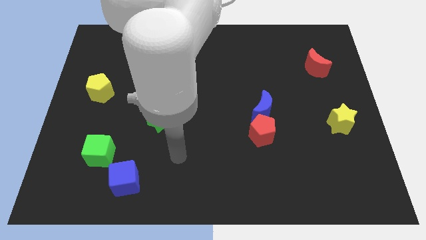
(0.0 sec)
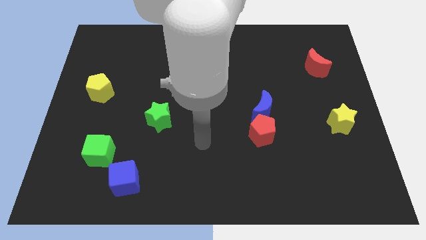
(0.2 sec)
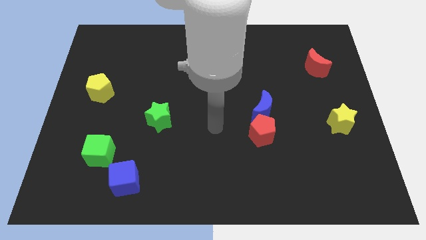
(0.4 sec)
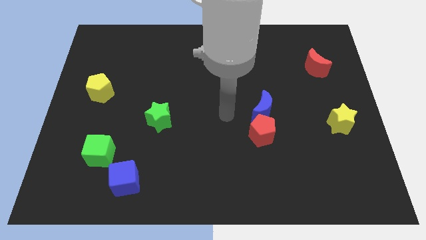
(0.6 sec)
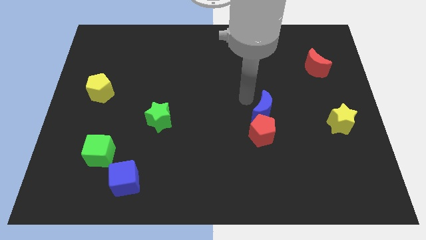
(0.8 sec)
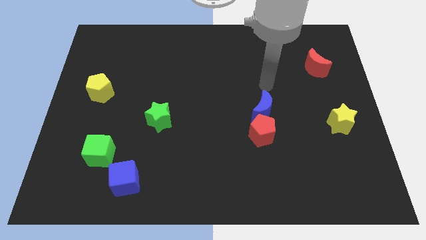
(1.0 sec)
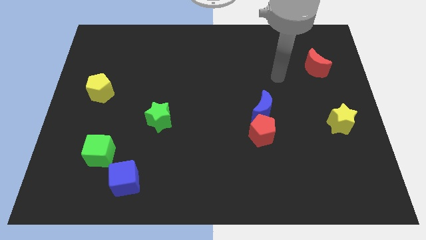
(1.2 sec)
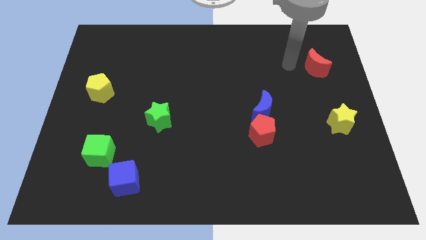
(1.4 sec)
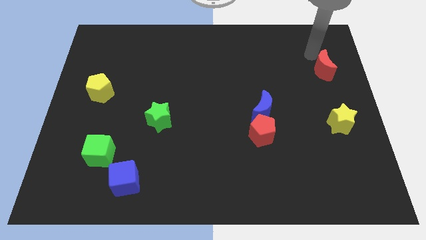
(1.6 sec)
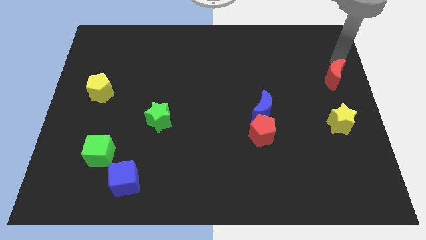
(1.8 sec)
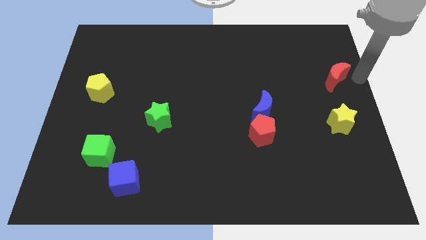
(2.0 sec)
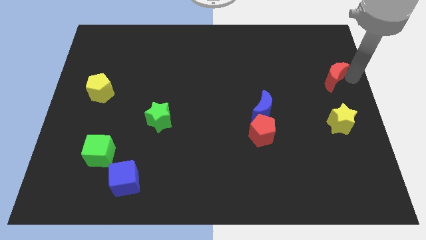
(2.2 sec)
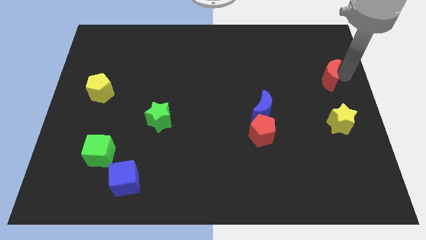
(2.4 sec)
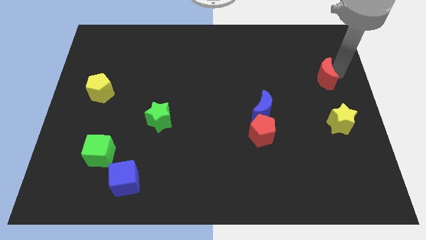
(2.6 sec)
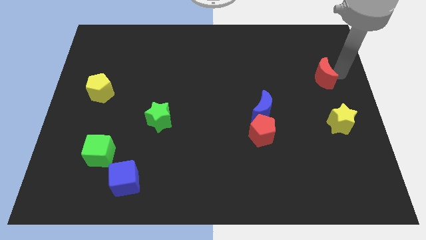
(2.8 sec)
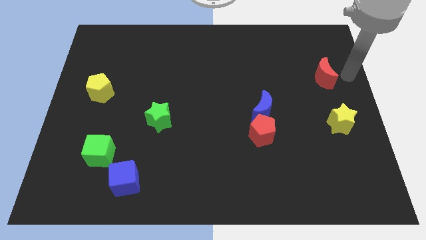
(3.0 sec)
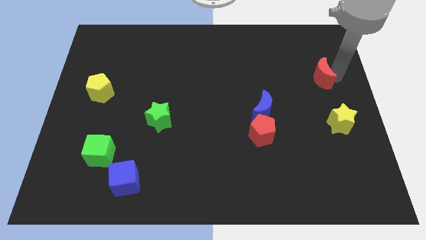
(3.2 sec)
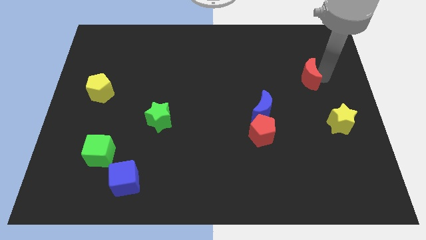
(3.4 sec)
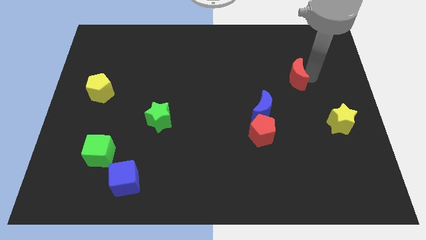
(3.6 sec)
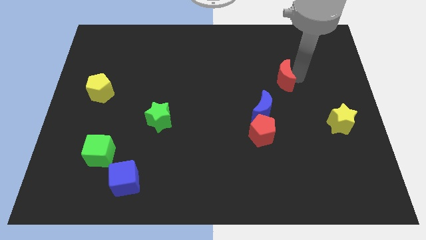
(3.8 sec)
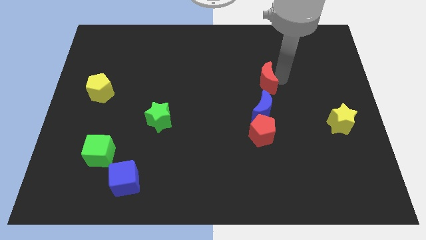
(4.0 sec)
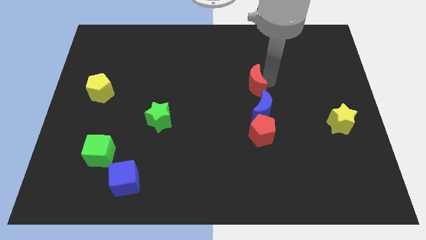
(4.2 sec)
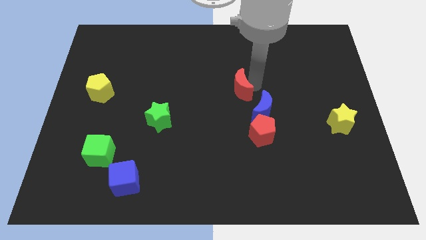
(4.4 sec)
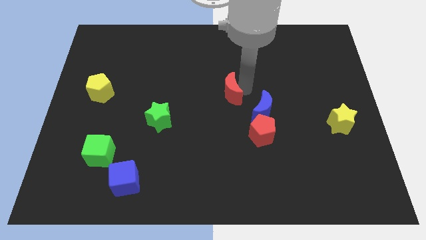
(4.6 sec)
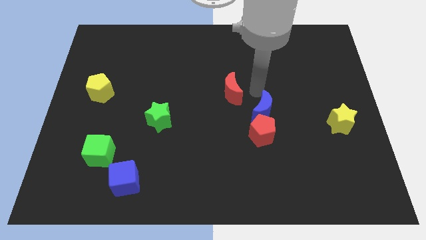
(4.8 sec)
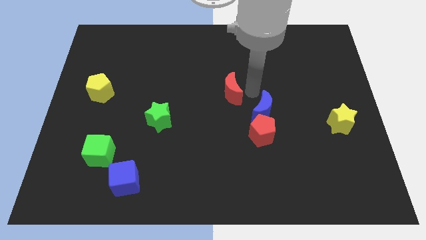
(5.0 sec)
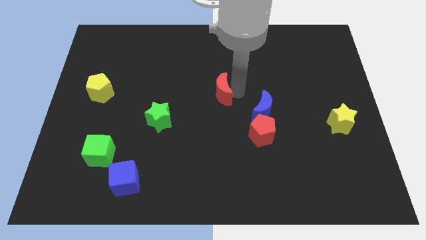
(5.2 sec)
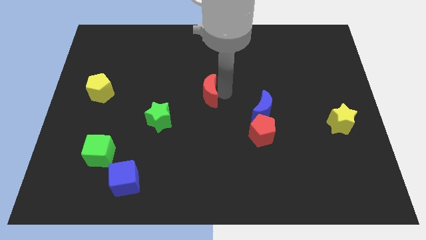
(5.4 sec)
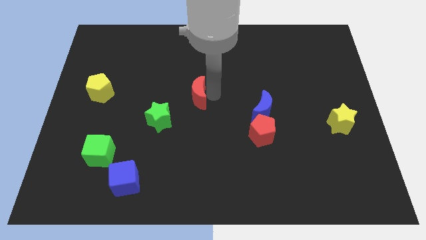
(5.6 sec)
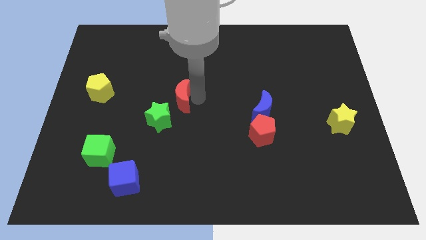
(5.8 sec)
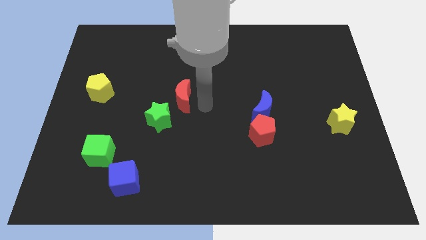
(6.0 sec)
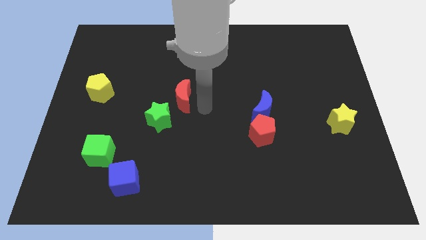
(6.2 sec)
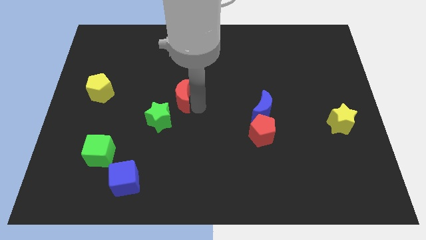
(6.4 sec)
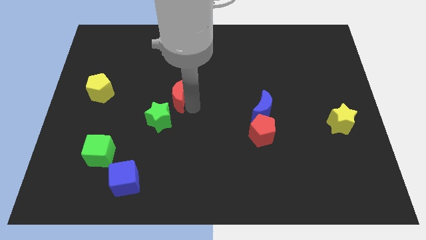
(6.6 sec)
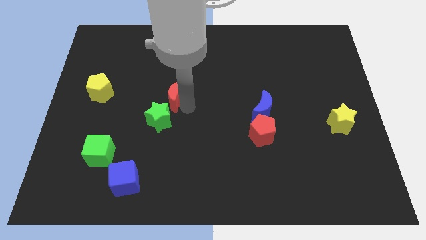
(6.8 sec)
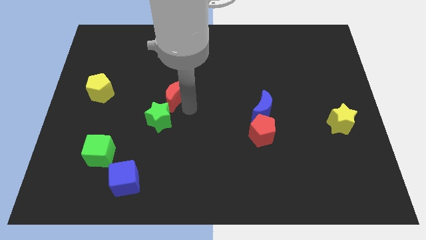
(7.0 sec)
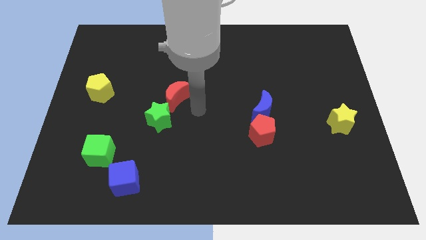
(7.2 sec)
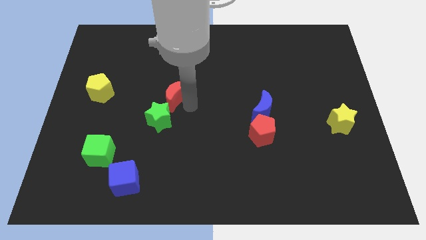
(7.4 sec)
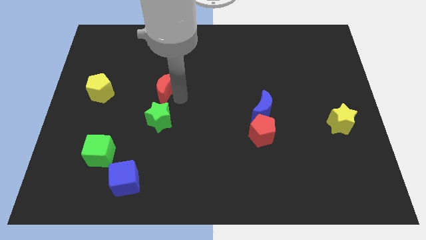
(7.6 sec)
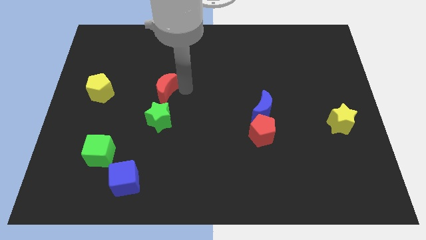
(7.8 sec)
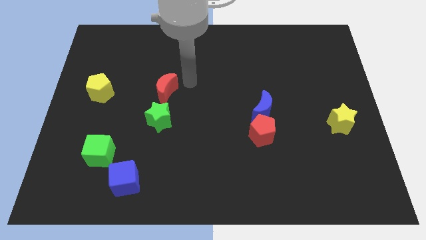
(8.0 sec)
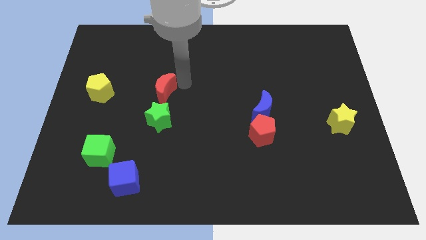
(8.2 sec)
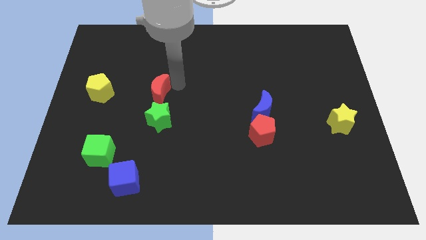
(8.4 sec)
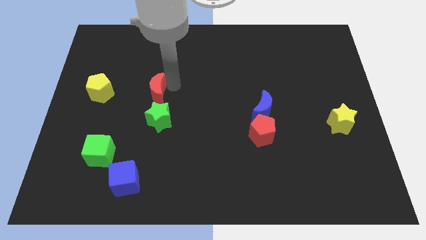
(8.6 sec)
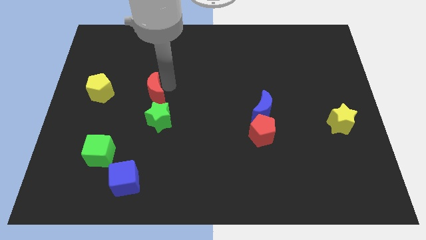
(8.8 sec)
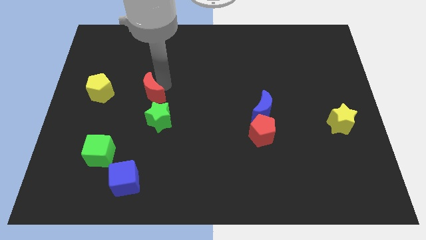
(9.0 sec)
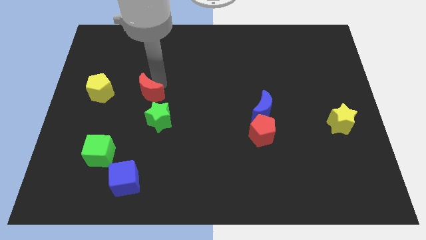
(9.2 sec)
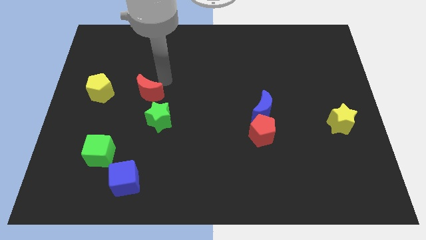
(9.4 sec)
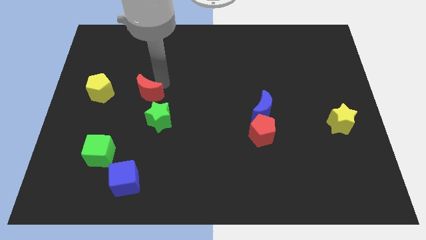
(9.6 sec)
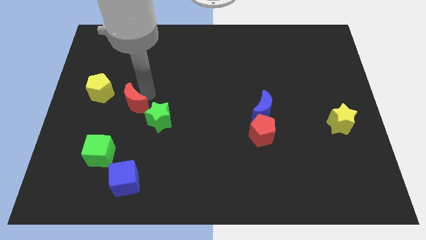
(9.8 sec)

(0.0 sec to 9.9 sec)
push the red moon to the left side of the green star

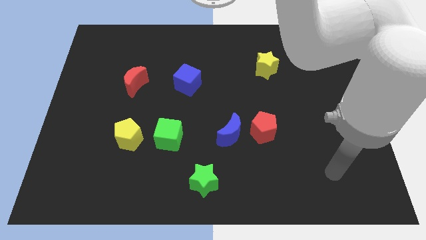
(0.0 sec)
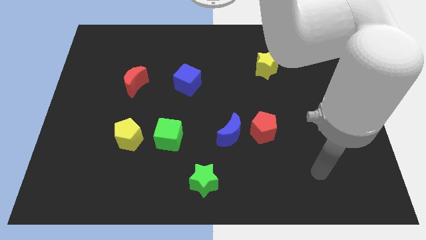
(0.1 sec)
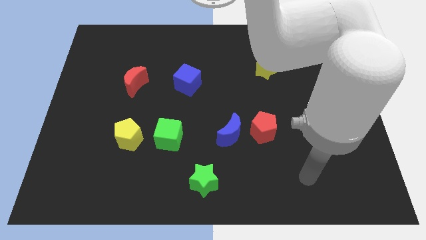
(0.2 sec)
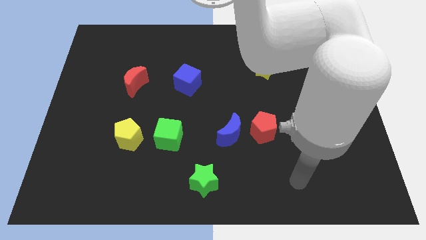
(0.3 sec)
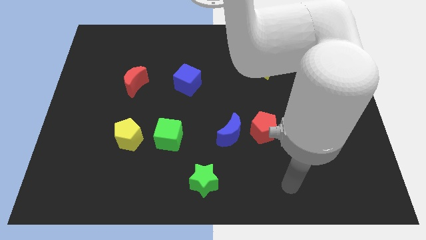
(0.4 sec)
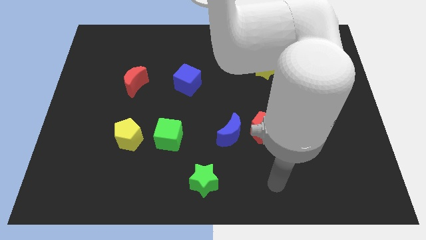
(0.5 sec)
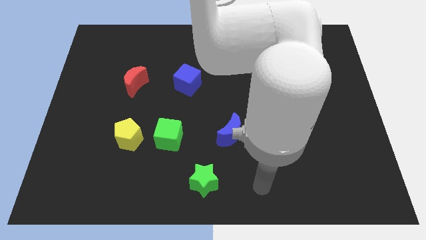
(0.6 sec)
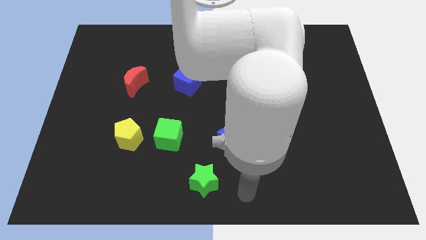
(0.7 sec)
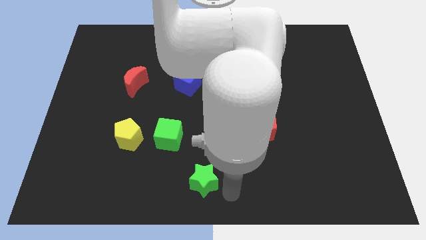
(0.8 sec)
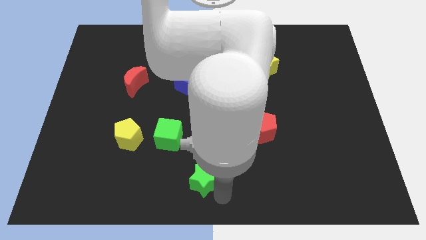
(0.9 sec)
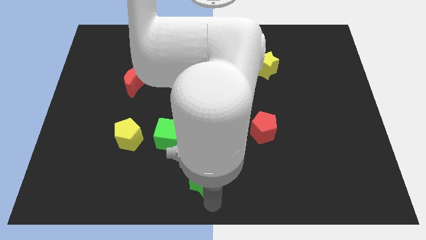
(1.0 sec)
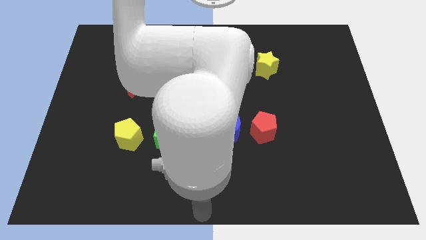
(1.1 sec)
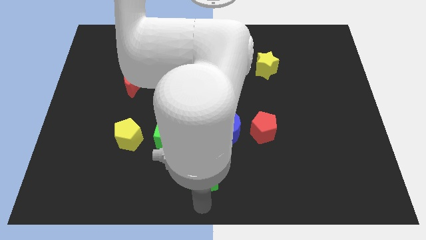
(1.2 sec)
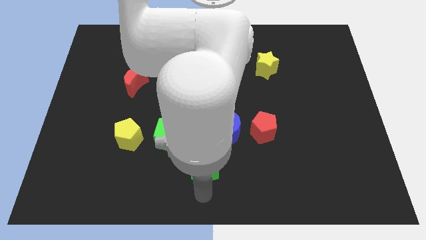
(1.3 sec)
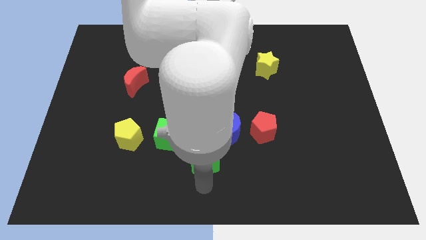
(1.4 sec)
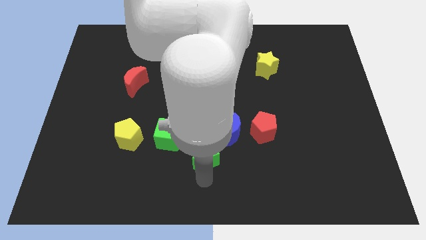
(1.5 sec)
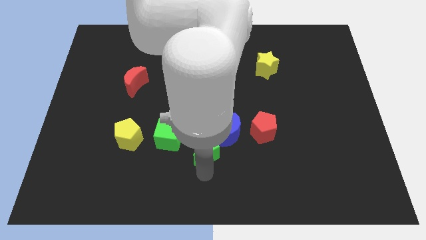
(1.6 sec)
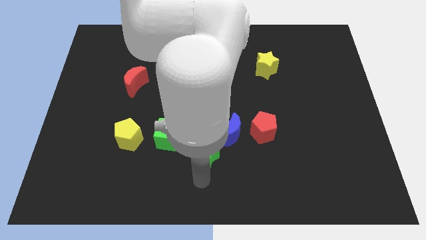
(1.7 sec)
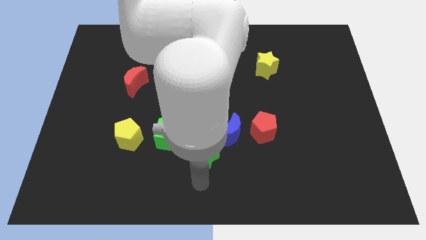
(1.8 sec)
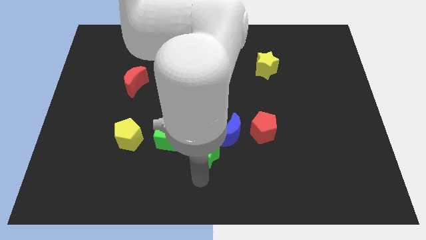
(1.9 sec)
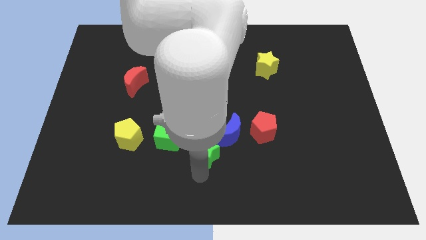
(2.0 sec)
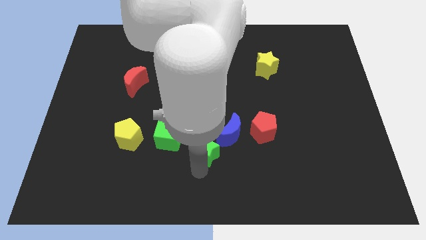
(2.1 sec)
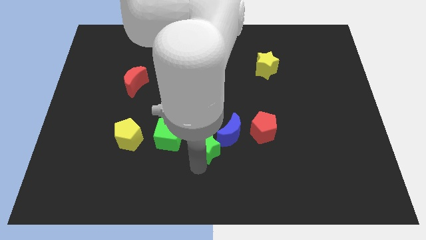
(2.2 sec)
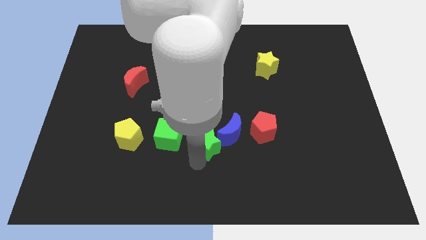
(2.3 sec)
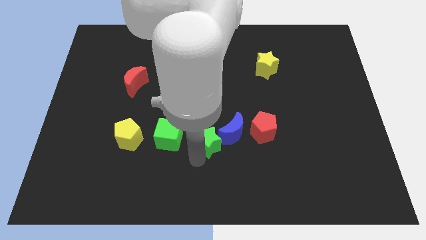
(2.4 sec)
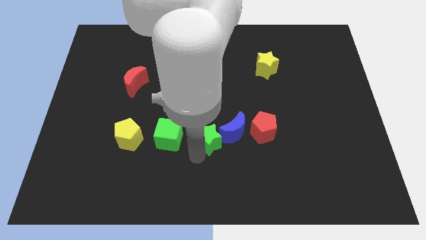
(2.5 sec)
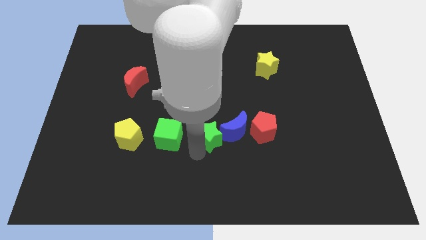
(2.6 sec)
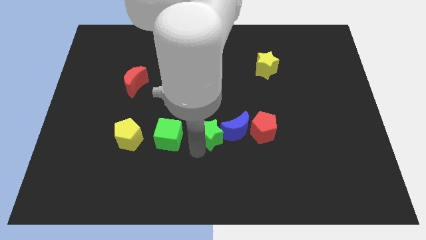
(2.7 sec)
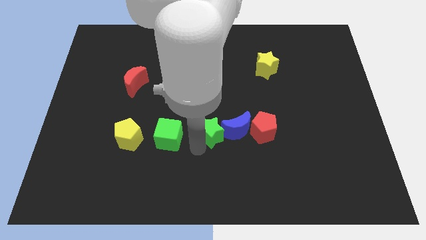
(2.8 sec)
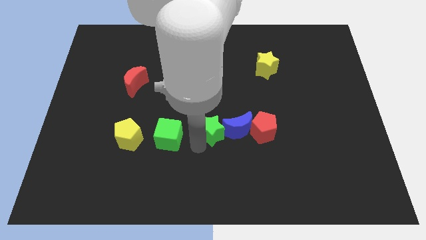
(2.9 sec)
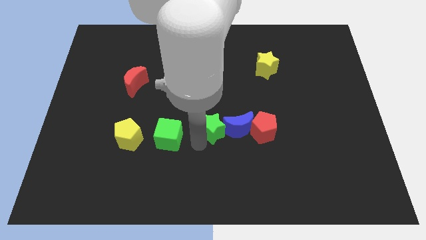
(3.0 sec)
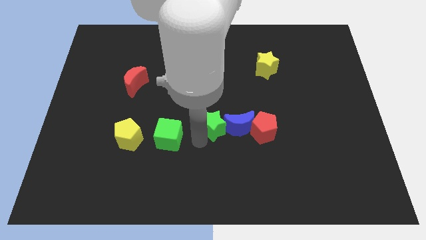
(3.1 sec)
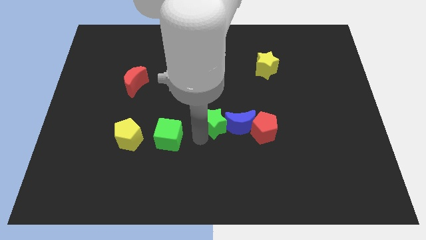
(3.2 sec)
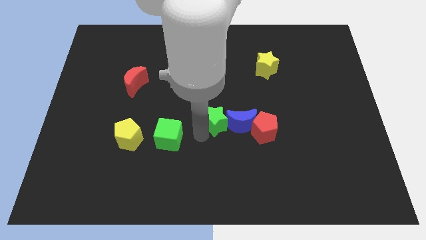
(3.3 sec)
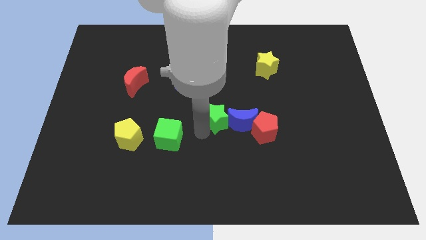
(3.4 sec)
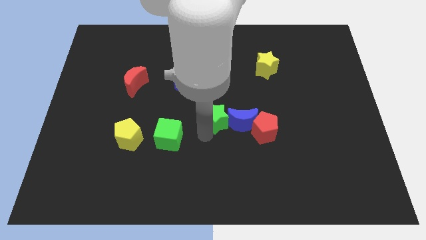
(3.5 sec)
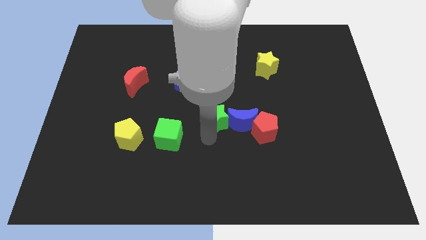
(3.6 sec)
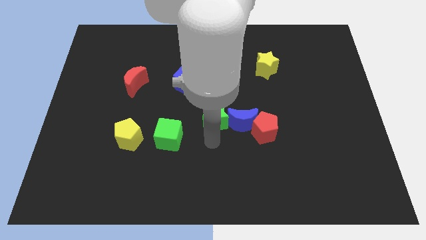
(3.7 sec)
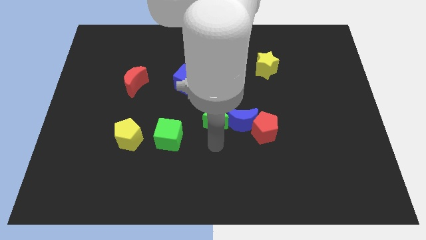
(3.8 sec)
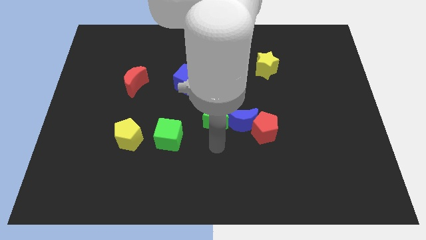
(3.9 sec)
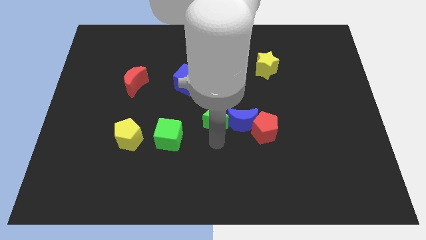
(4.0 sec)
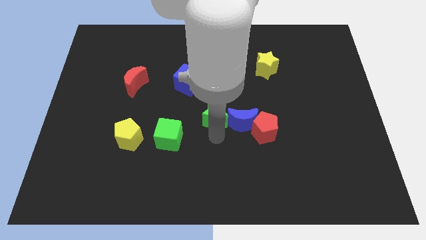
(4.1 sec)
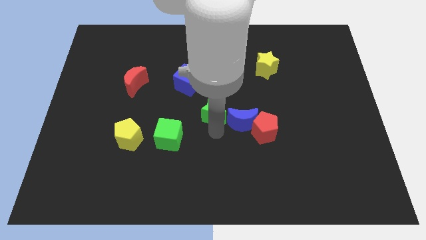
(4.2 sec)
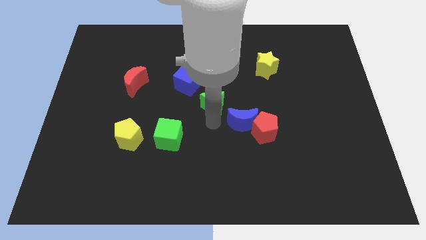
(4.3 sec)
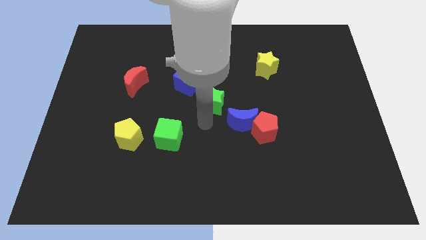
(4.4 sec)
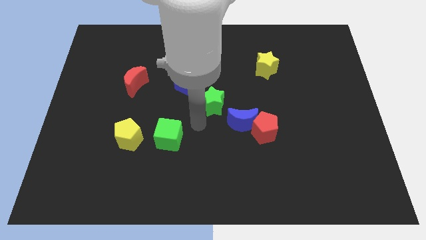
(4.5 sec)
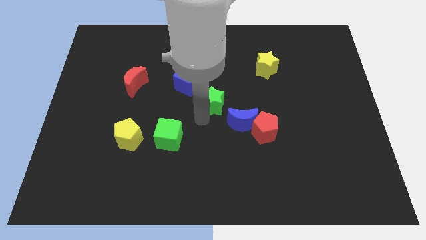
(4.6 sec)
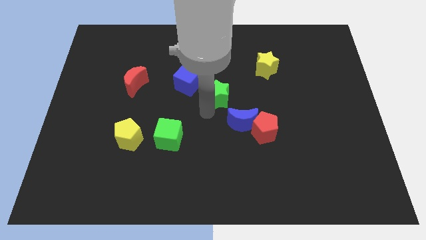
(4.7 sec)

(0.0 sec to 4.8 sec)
put the green star to the right side of the blue cube
